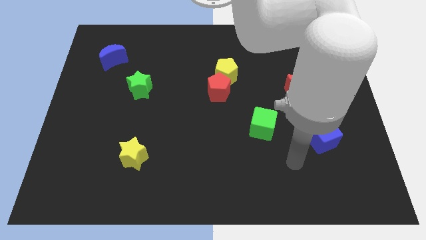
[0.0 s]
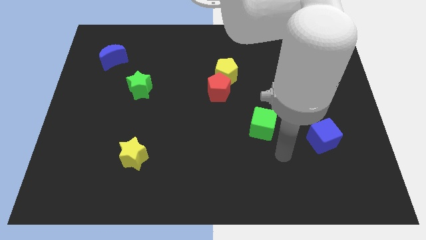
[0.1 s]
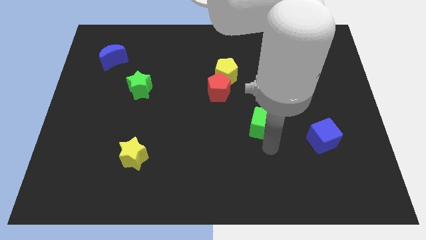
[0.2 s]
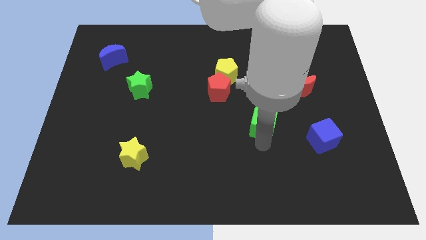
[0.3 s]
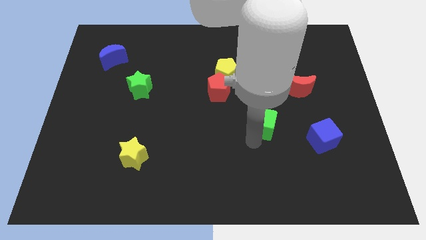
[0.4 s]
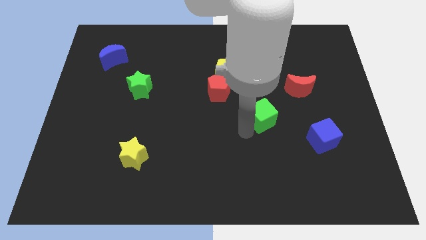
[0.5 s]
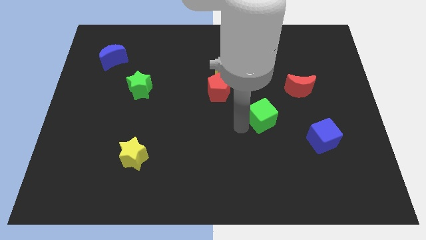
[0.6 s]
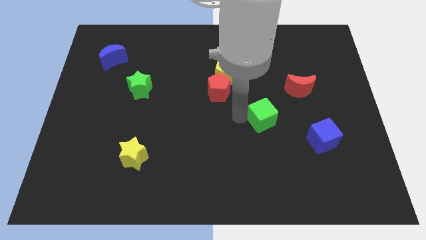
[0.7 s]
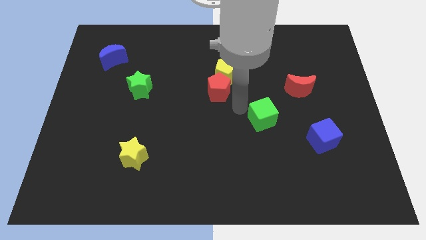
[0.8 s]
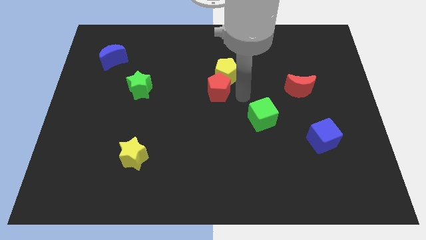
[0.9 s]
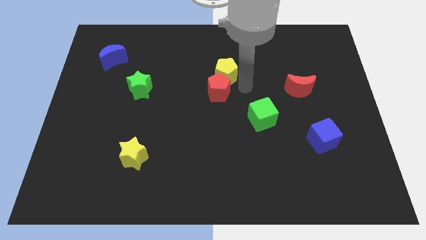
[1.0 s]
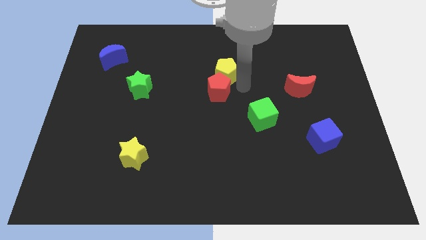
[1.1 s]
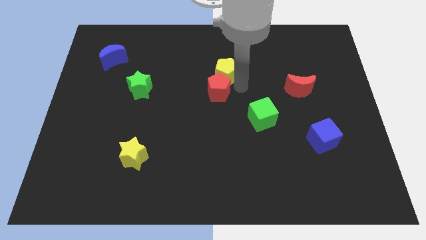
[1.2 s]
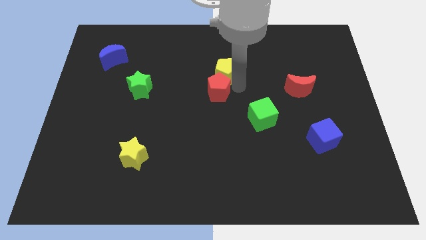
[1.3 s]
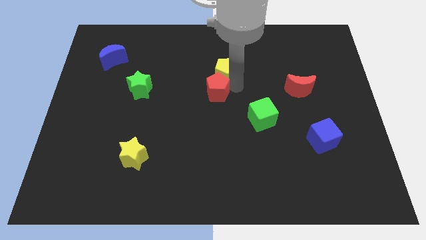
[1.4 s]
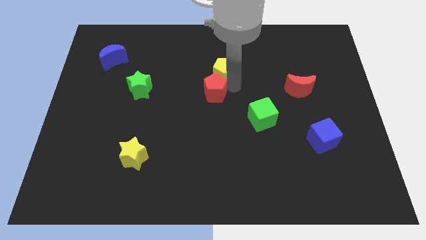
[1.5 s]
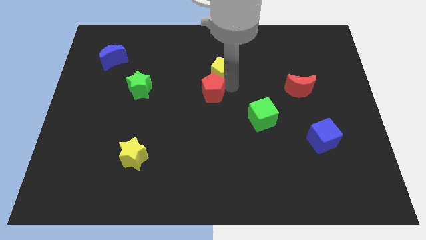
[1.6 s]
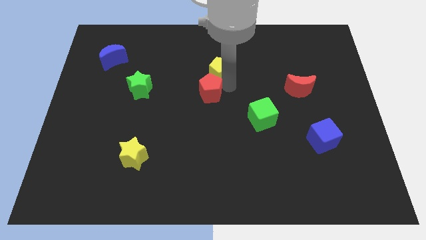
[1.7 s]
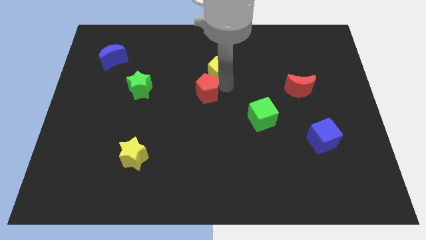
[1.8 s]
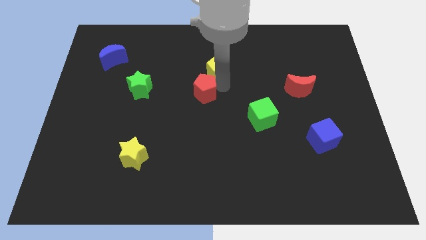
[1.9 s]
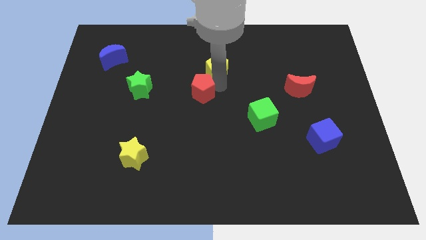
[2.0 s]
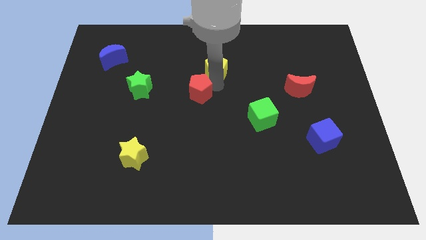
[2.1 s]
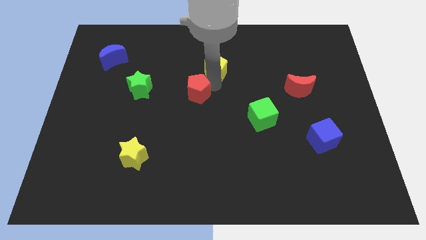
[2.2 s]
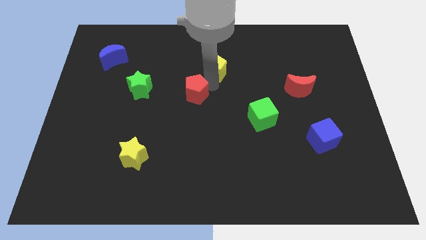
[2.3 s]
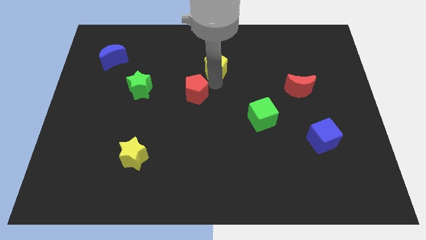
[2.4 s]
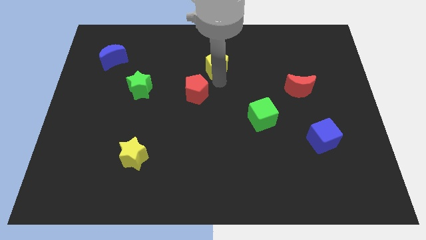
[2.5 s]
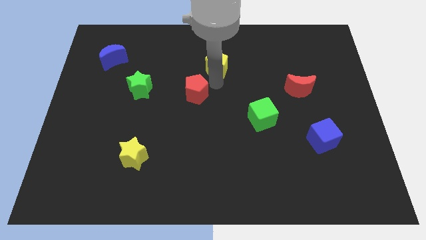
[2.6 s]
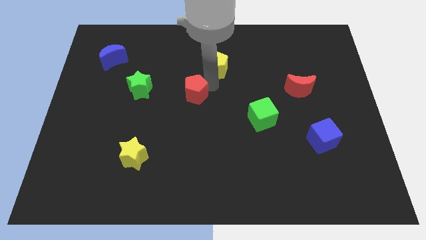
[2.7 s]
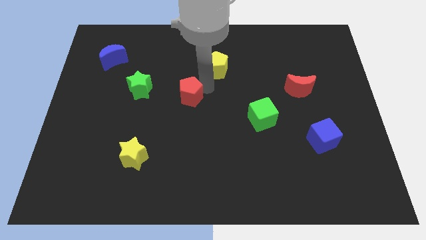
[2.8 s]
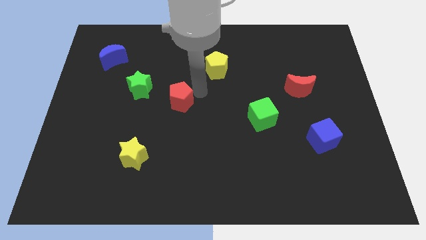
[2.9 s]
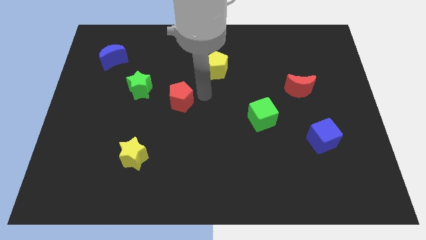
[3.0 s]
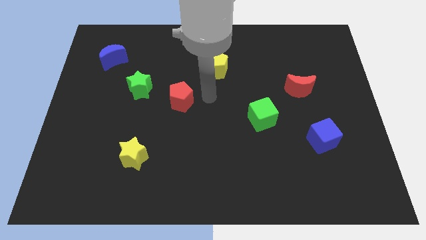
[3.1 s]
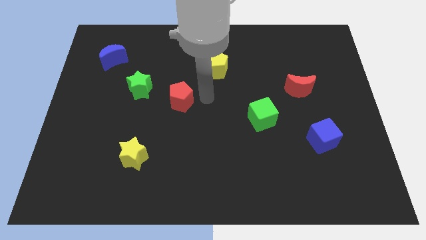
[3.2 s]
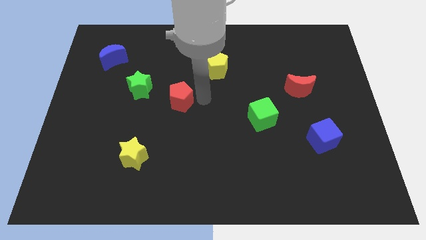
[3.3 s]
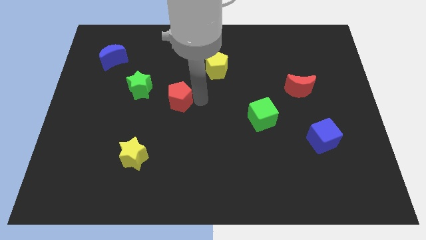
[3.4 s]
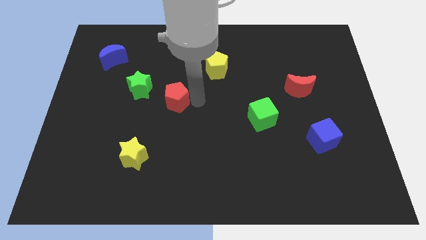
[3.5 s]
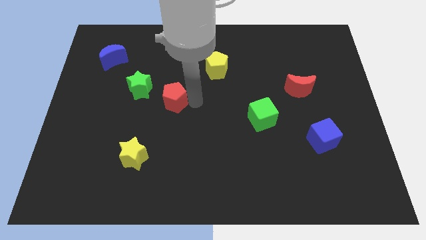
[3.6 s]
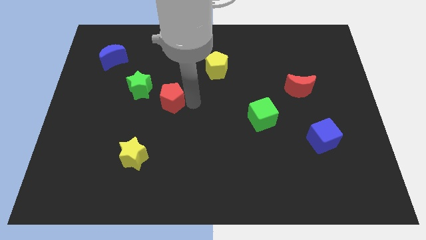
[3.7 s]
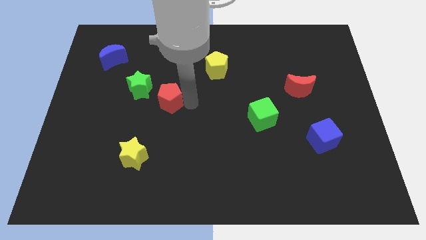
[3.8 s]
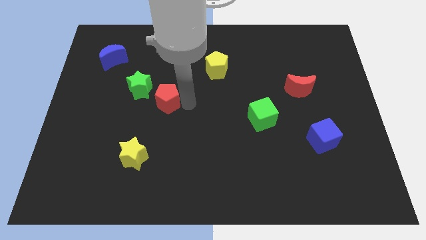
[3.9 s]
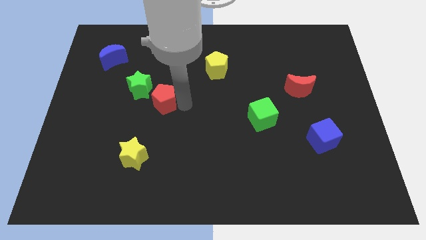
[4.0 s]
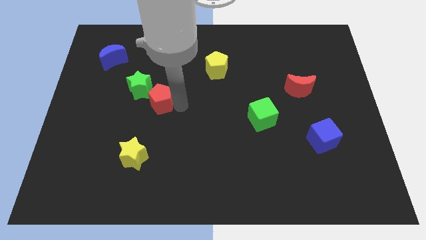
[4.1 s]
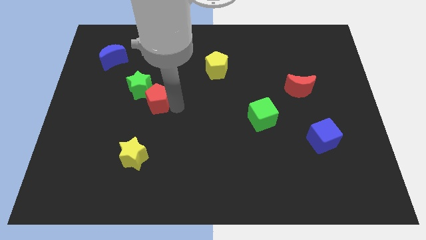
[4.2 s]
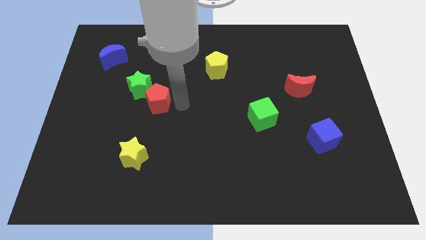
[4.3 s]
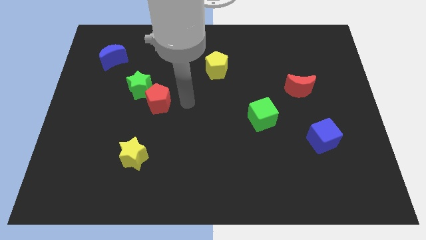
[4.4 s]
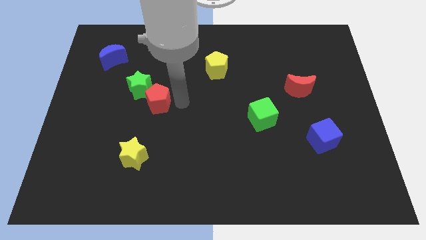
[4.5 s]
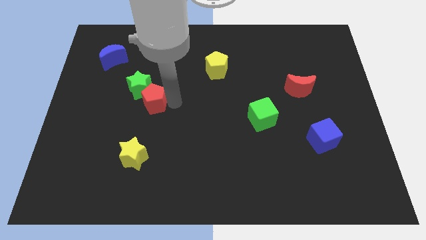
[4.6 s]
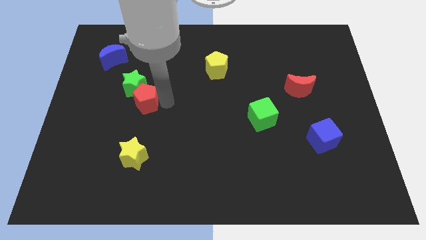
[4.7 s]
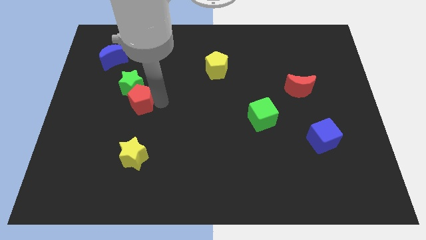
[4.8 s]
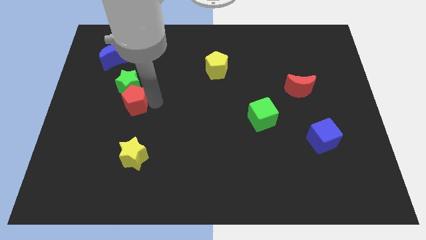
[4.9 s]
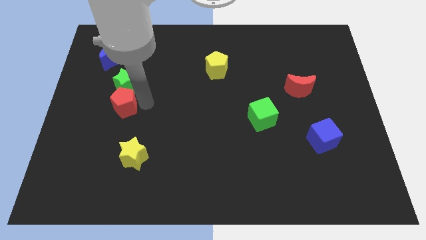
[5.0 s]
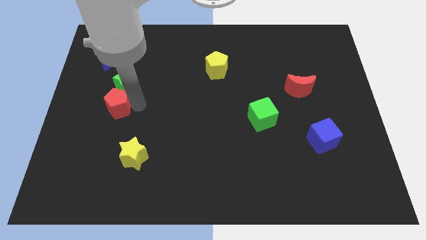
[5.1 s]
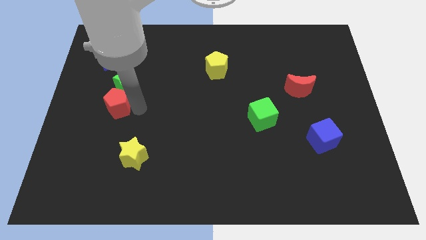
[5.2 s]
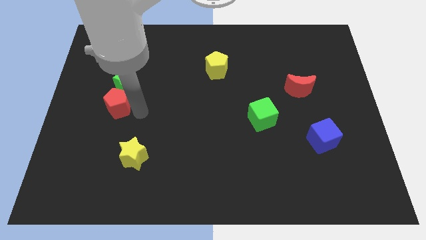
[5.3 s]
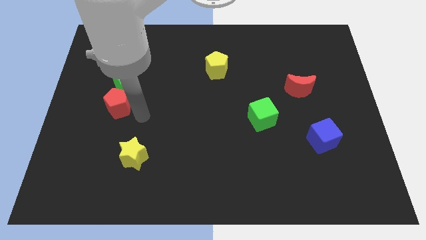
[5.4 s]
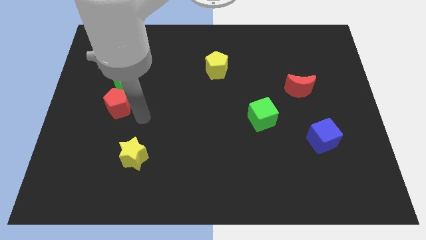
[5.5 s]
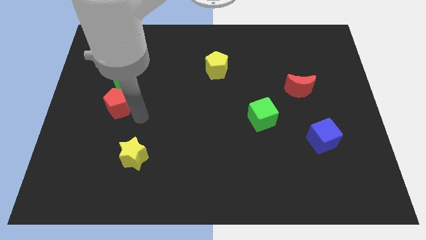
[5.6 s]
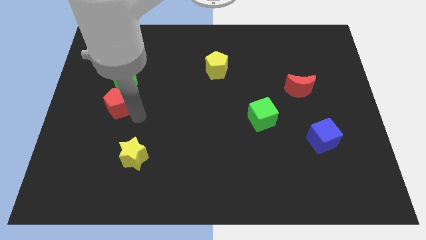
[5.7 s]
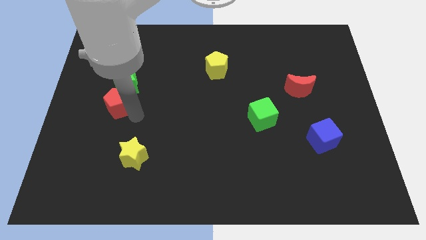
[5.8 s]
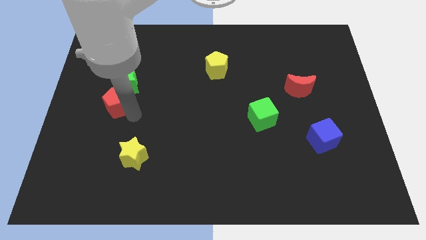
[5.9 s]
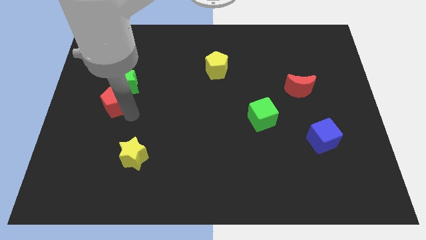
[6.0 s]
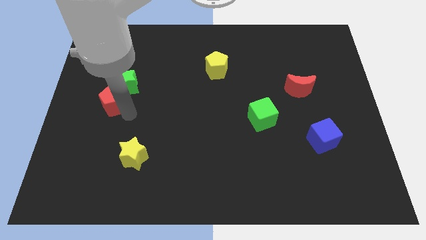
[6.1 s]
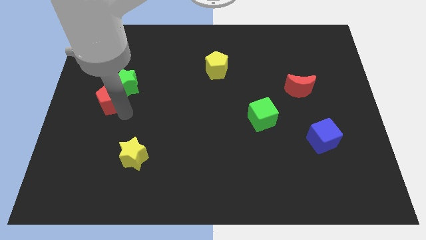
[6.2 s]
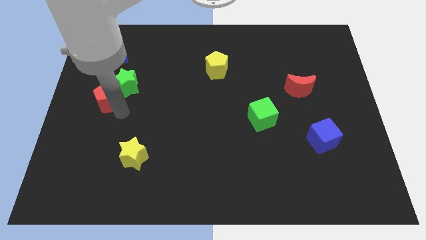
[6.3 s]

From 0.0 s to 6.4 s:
slide the red pentagon to the center left

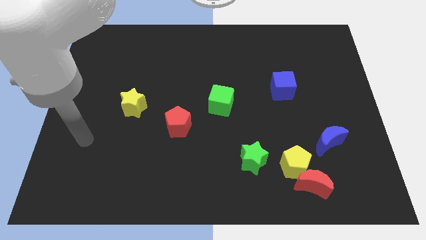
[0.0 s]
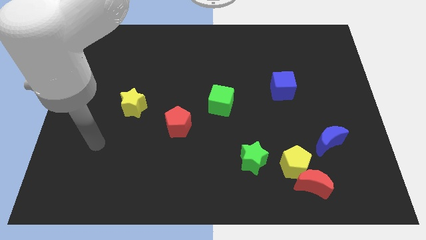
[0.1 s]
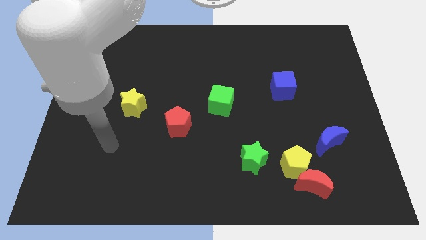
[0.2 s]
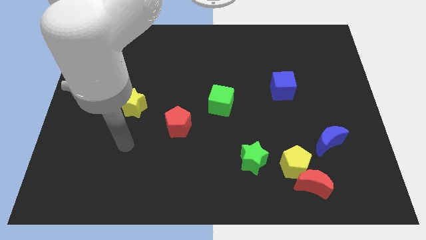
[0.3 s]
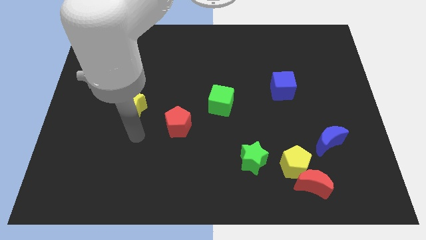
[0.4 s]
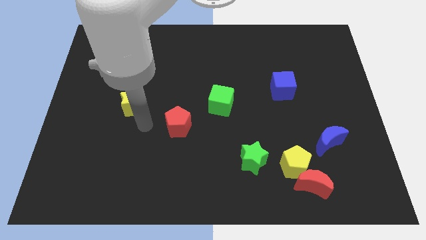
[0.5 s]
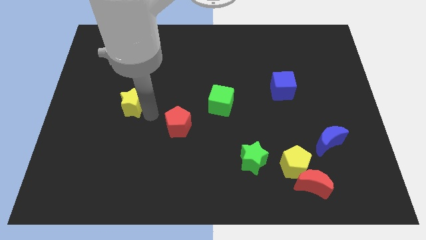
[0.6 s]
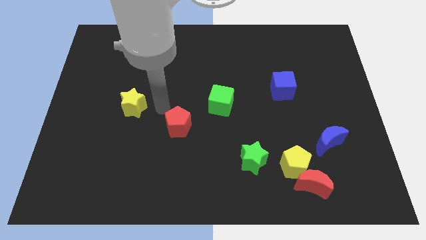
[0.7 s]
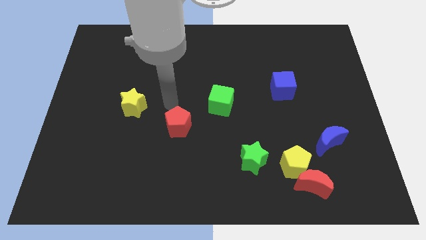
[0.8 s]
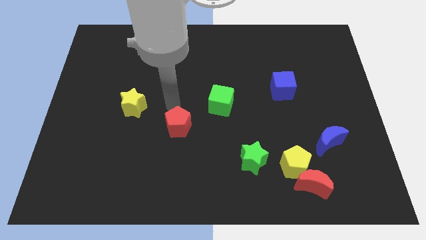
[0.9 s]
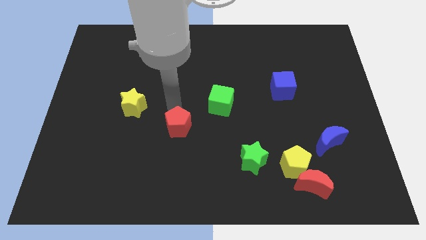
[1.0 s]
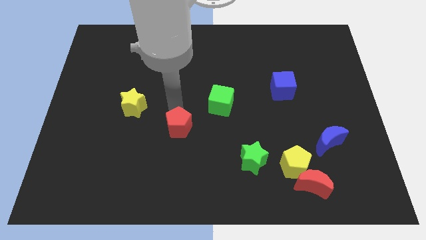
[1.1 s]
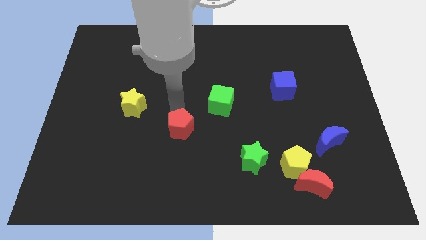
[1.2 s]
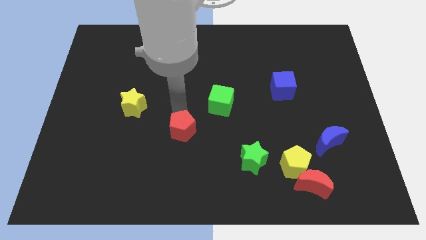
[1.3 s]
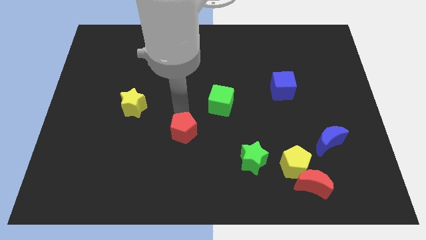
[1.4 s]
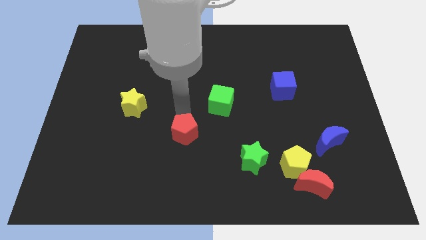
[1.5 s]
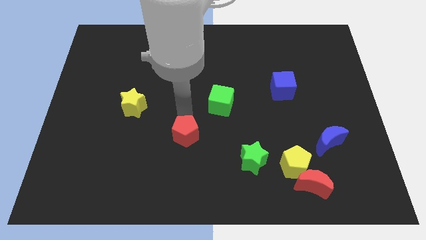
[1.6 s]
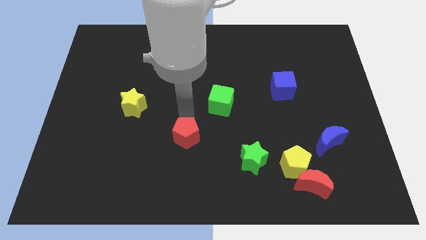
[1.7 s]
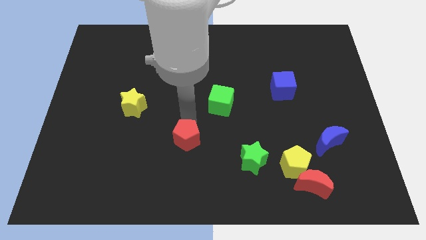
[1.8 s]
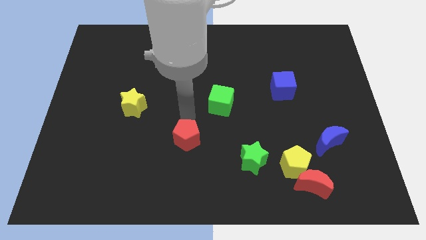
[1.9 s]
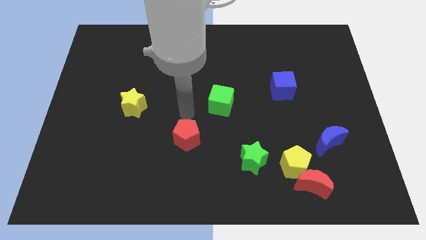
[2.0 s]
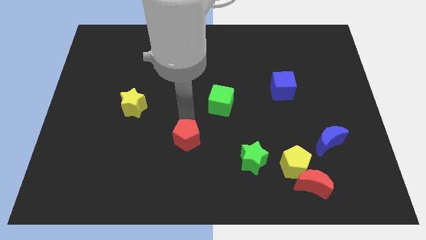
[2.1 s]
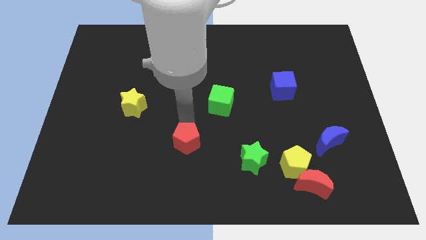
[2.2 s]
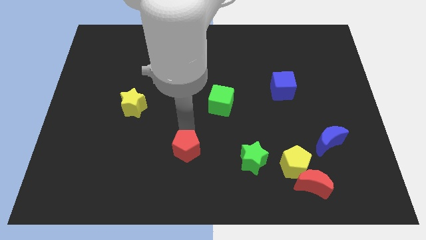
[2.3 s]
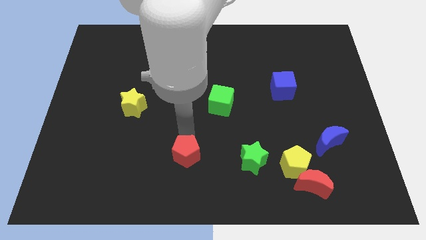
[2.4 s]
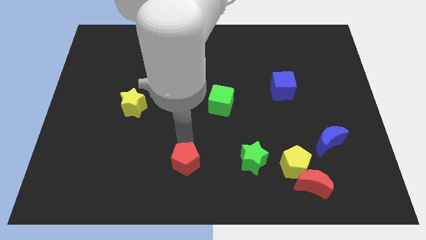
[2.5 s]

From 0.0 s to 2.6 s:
move the red pentagon to the bottom side
